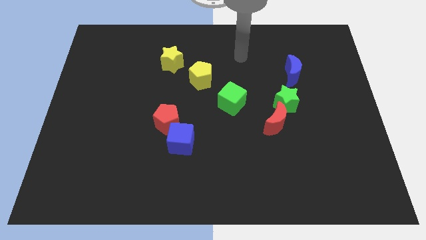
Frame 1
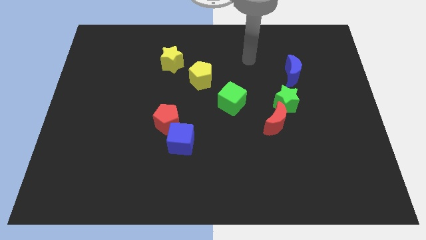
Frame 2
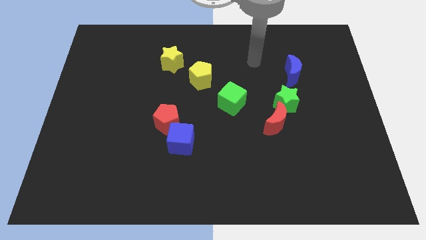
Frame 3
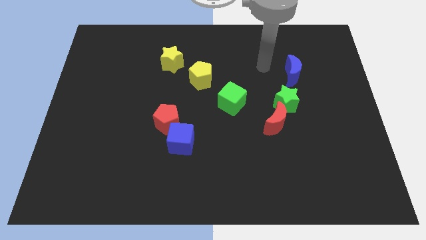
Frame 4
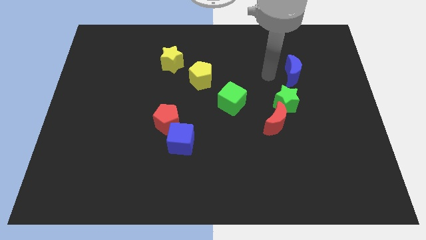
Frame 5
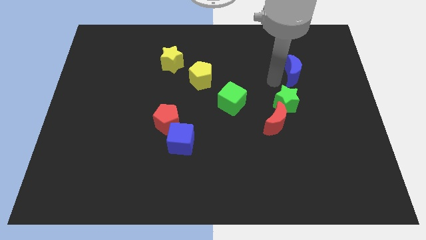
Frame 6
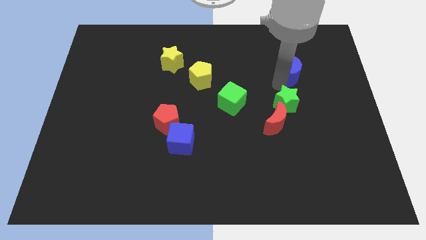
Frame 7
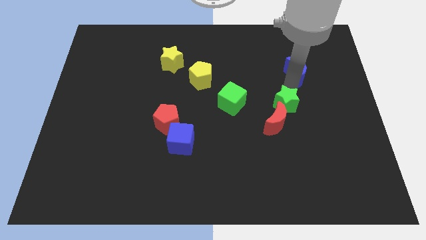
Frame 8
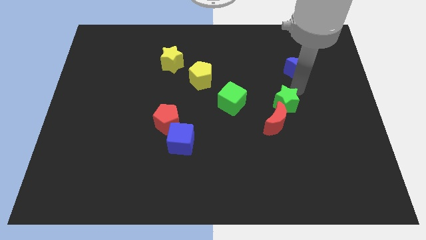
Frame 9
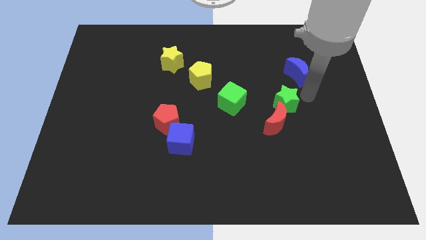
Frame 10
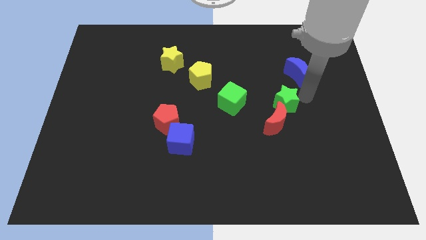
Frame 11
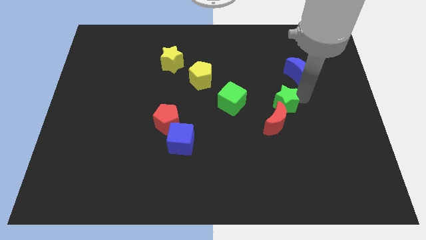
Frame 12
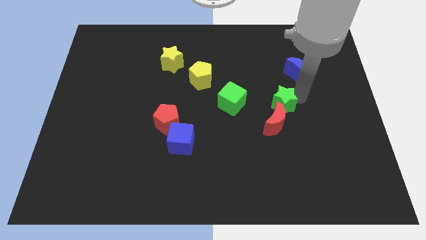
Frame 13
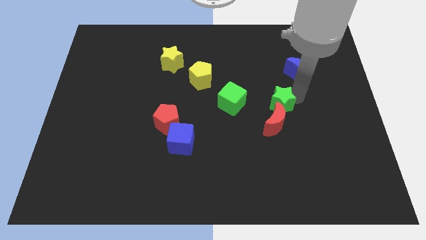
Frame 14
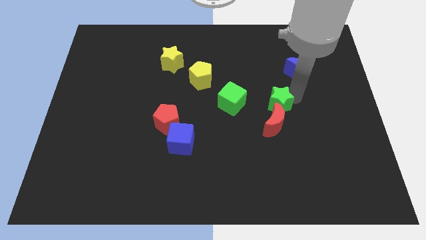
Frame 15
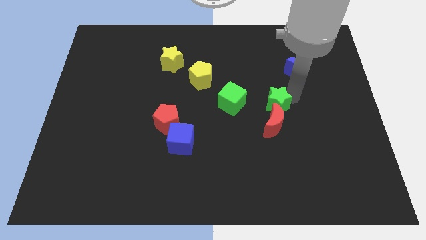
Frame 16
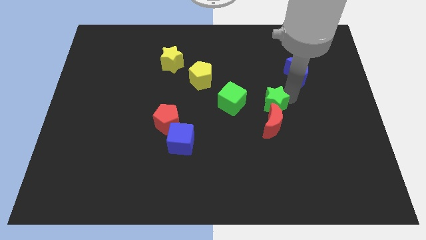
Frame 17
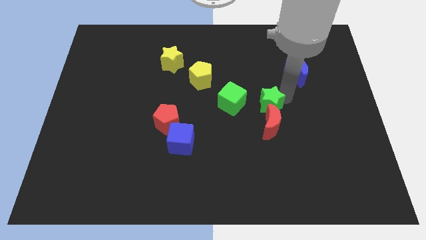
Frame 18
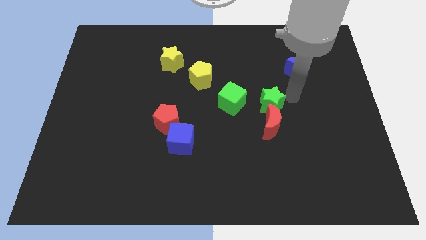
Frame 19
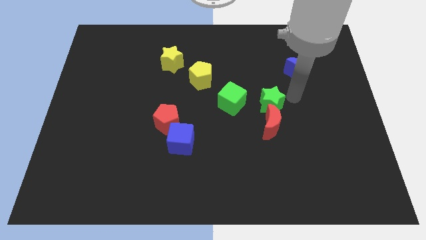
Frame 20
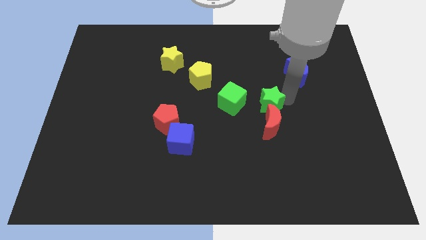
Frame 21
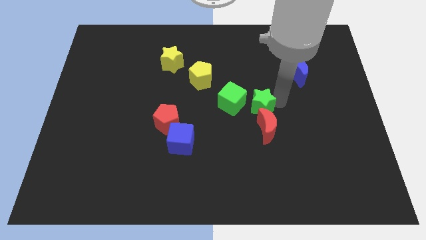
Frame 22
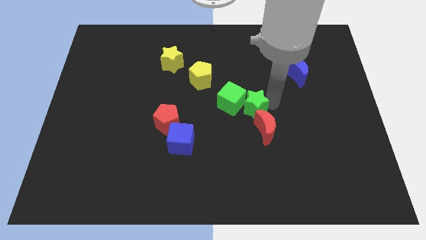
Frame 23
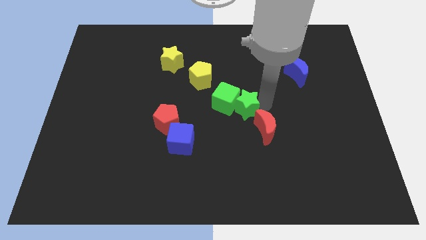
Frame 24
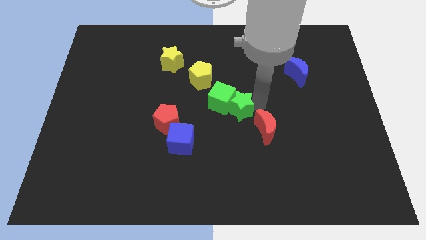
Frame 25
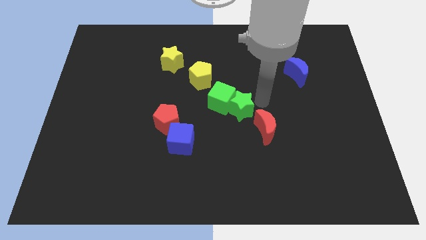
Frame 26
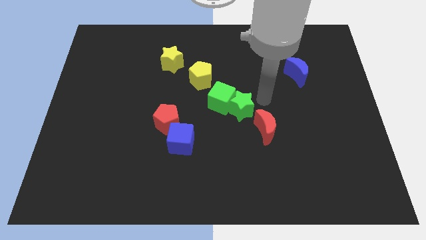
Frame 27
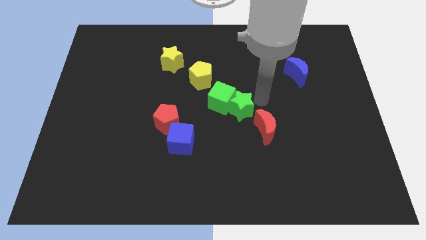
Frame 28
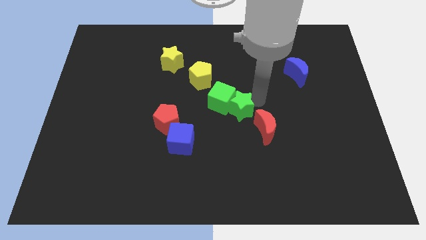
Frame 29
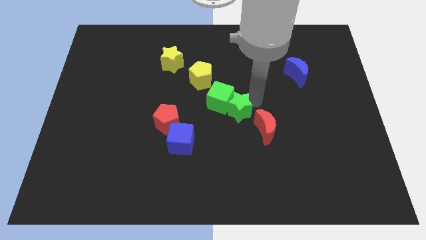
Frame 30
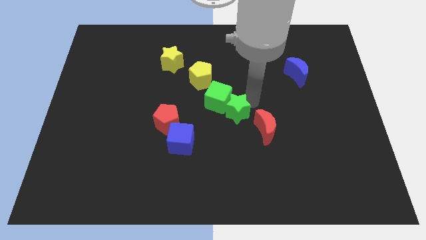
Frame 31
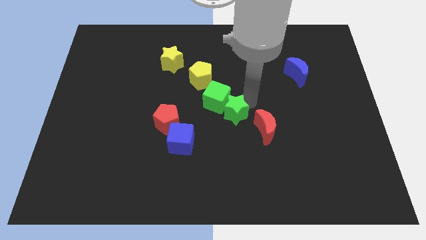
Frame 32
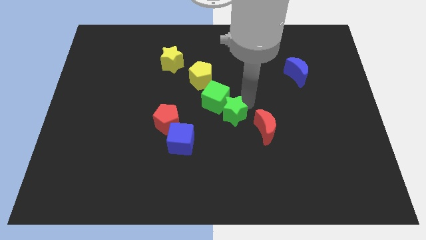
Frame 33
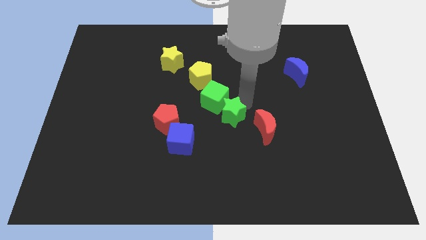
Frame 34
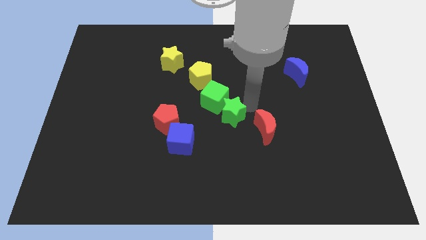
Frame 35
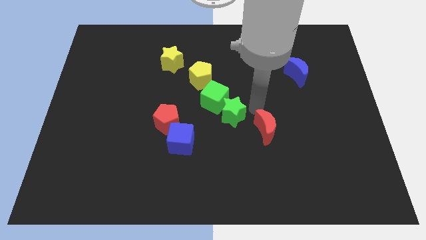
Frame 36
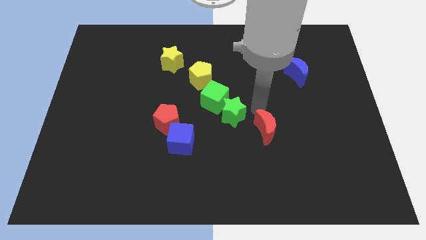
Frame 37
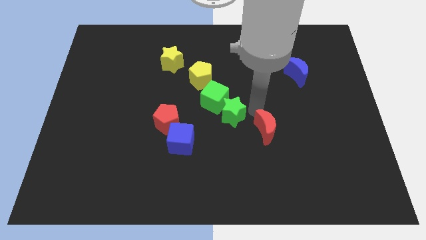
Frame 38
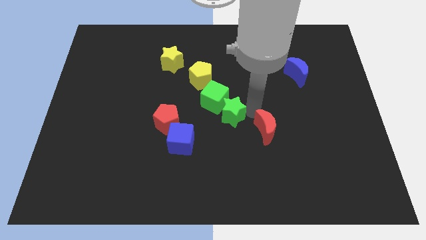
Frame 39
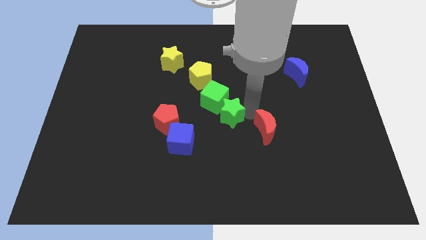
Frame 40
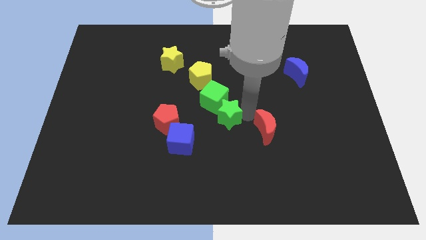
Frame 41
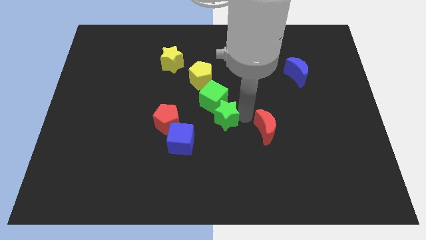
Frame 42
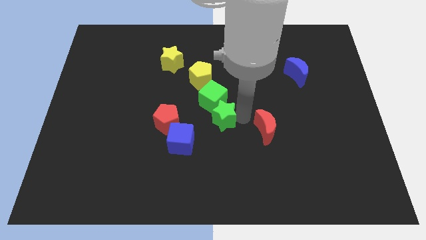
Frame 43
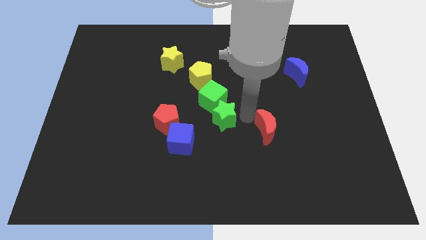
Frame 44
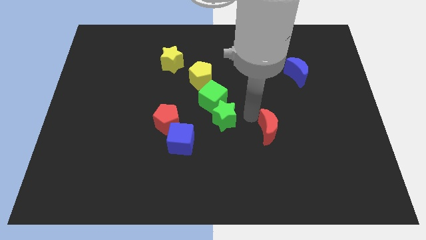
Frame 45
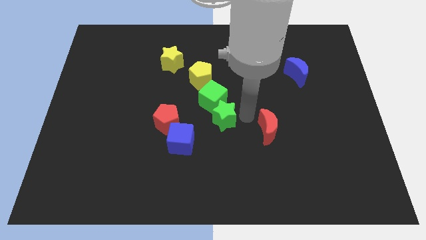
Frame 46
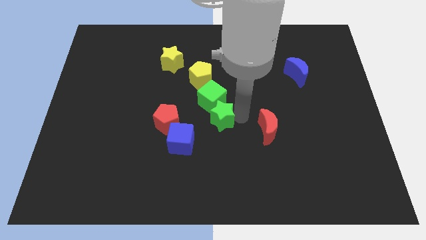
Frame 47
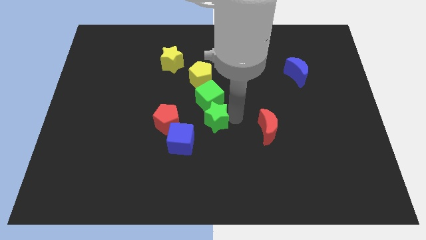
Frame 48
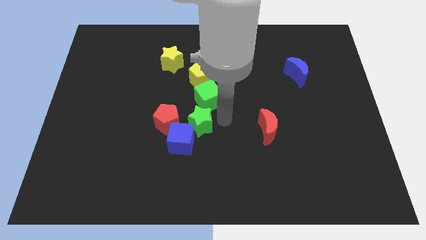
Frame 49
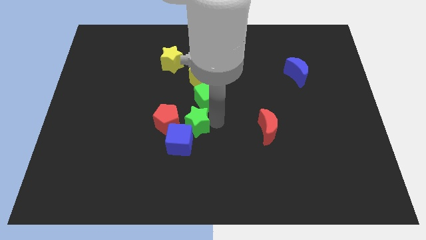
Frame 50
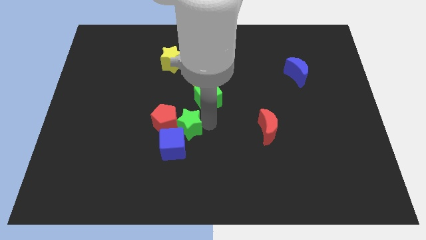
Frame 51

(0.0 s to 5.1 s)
move the green star to the red pentagon

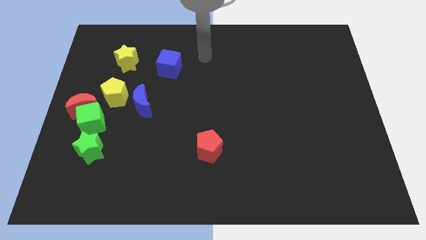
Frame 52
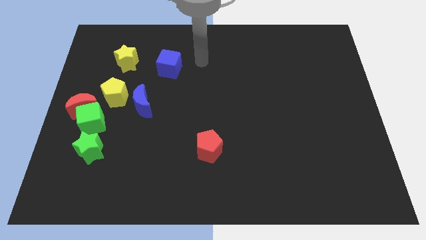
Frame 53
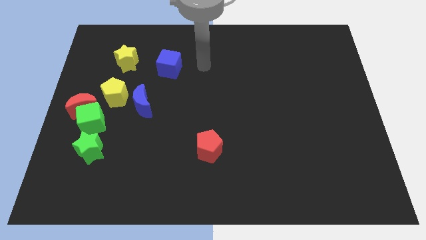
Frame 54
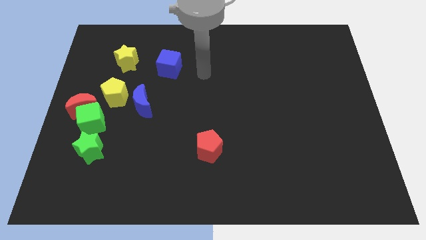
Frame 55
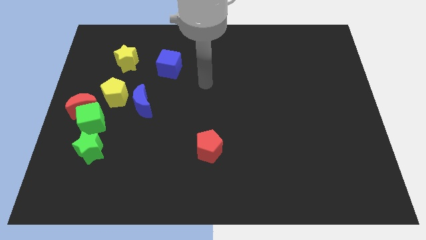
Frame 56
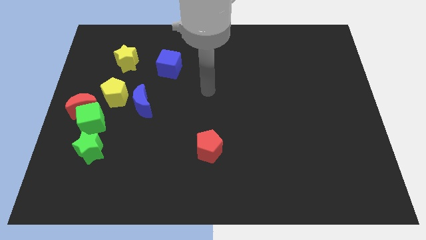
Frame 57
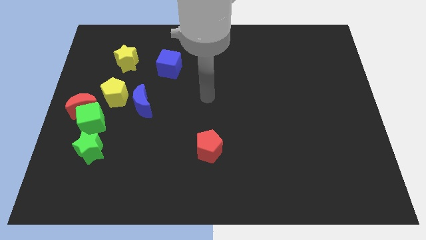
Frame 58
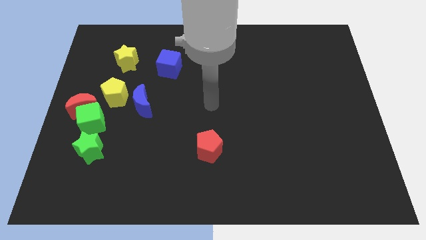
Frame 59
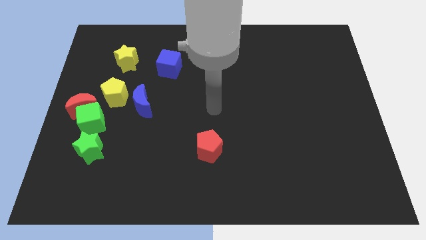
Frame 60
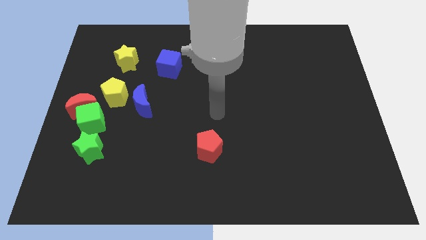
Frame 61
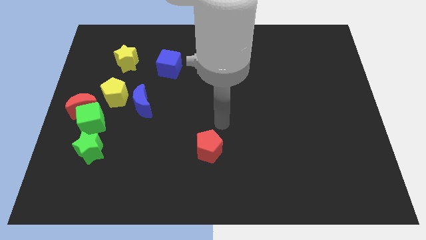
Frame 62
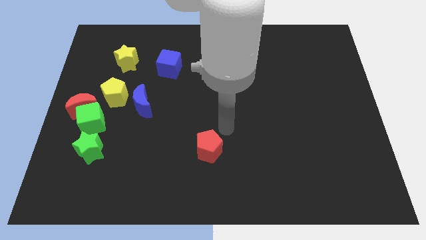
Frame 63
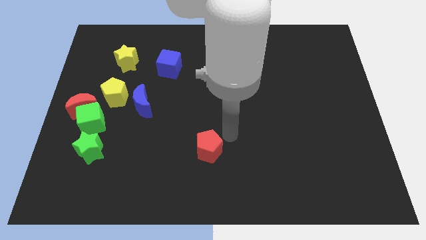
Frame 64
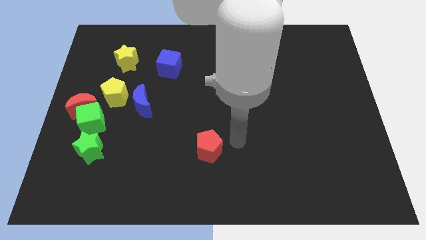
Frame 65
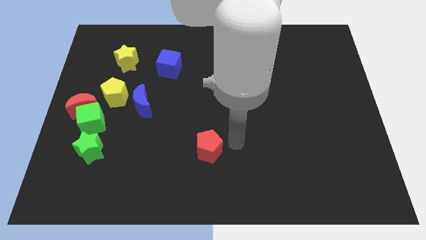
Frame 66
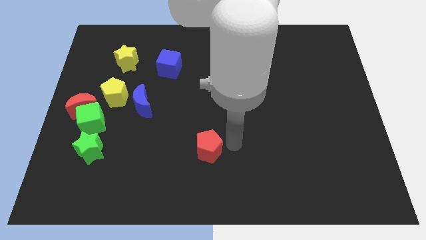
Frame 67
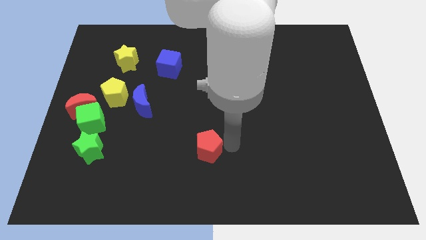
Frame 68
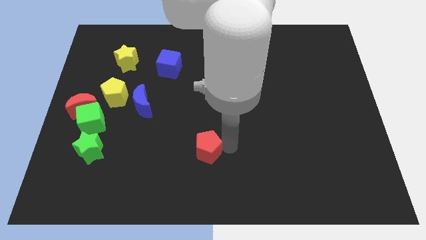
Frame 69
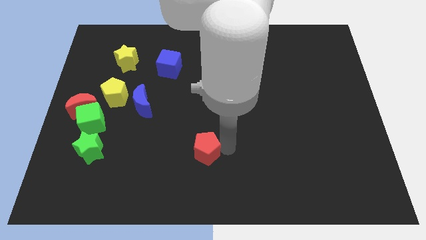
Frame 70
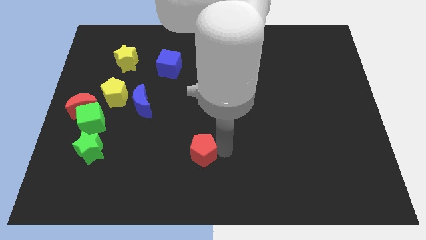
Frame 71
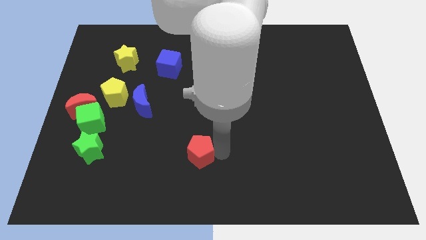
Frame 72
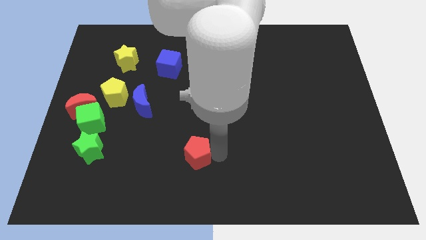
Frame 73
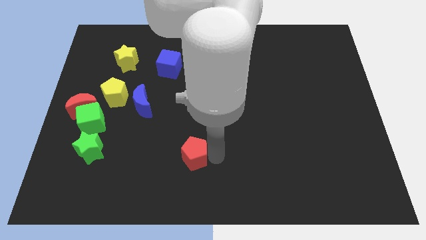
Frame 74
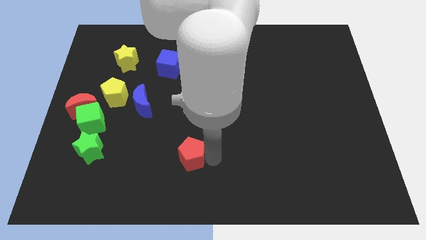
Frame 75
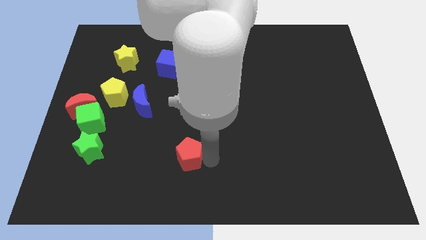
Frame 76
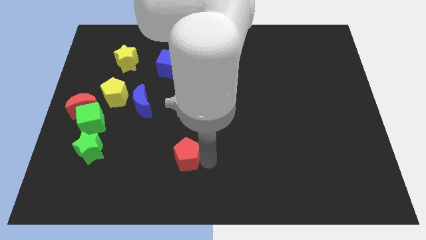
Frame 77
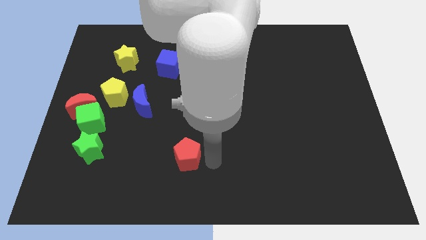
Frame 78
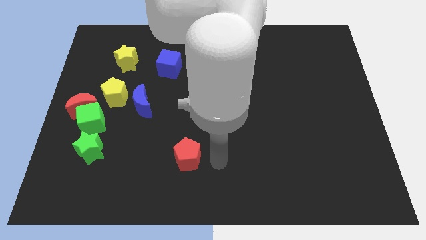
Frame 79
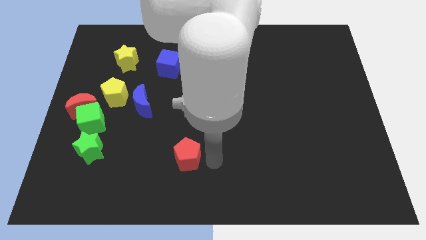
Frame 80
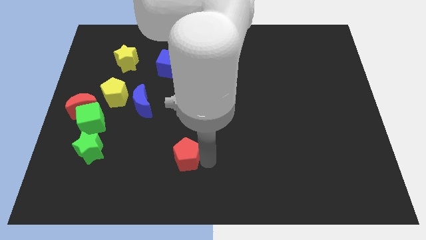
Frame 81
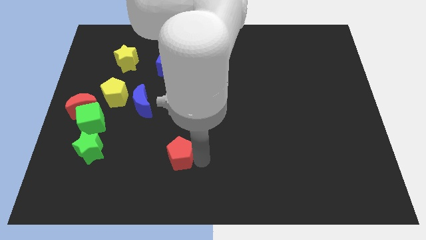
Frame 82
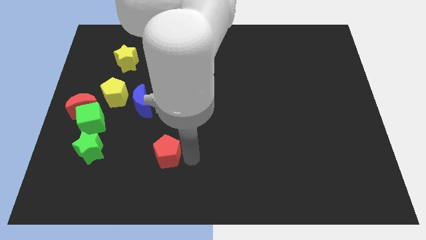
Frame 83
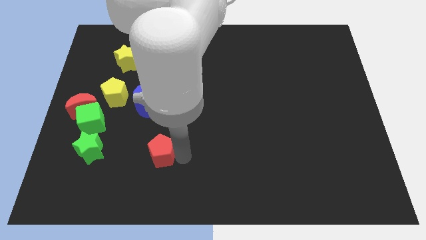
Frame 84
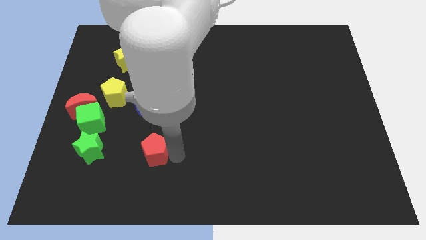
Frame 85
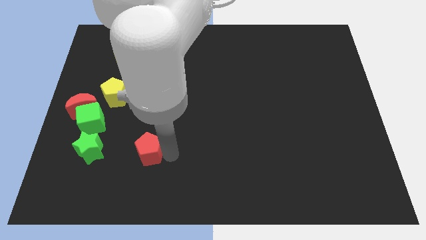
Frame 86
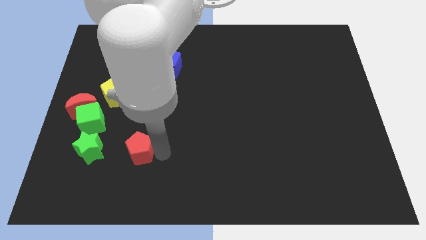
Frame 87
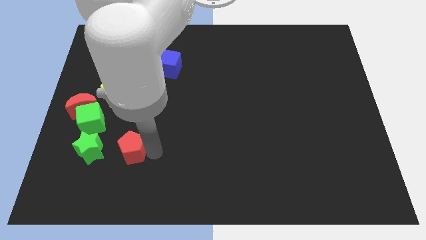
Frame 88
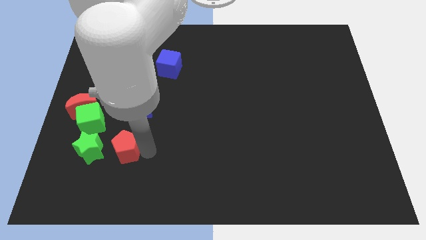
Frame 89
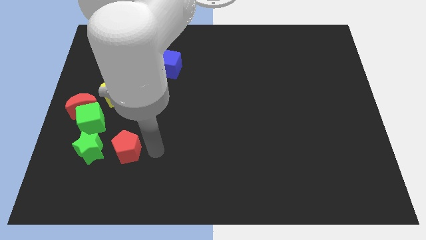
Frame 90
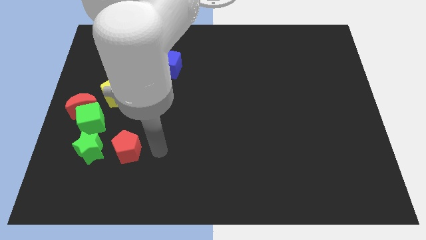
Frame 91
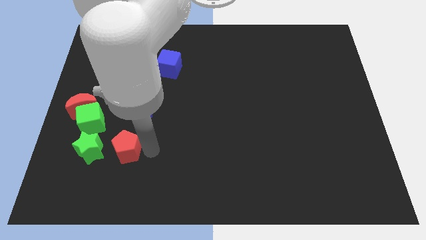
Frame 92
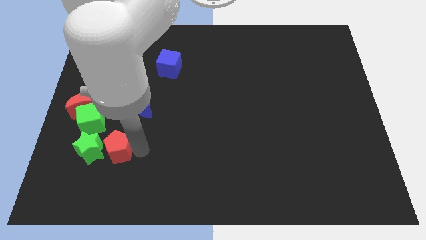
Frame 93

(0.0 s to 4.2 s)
slide the red pentagon towards the green star
